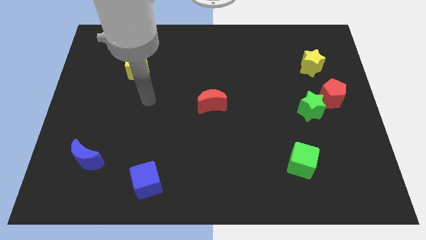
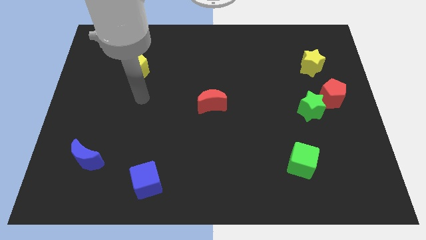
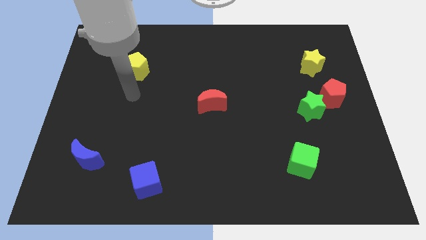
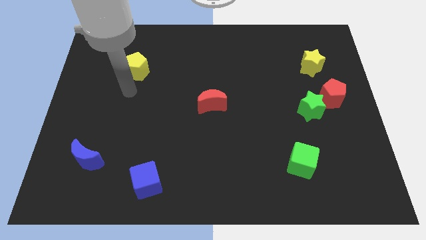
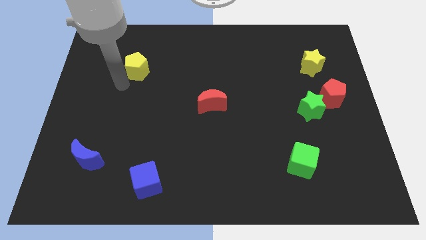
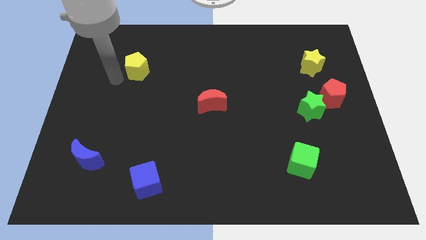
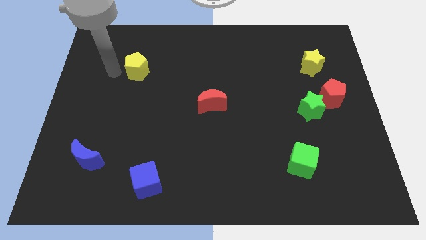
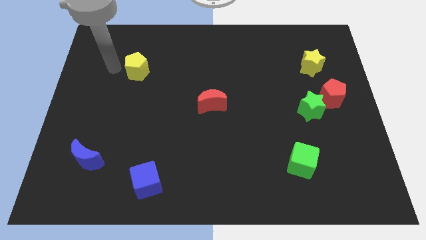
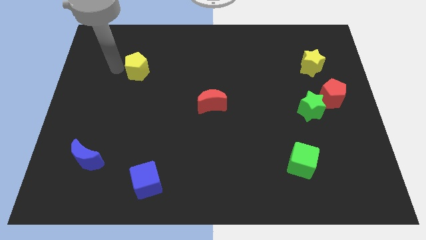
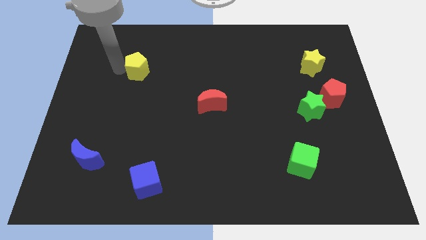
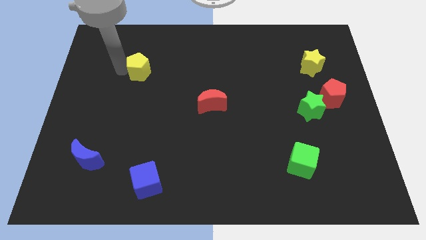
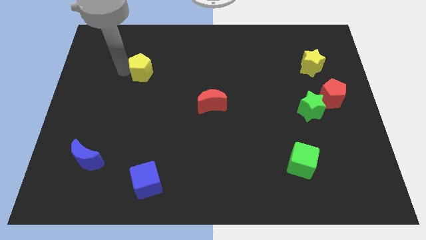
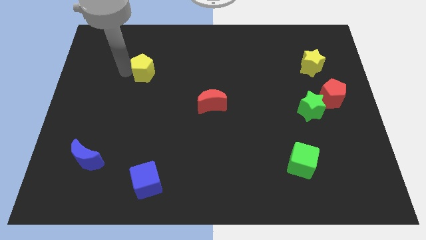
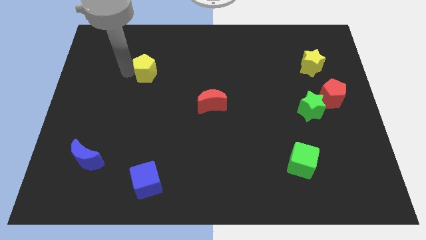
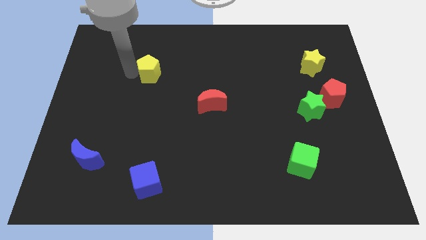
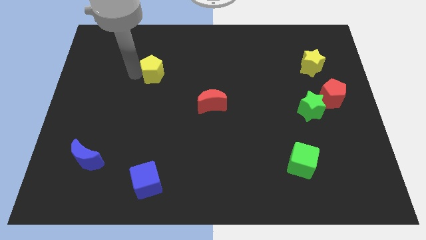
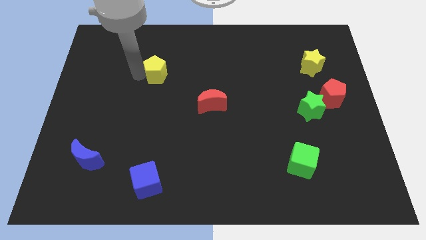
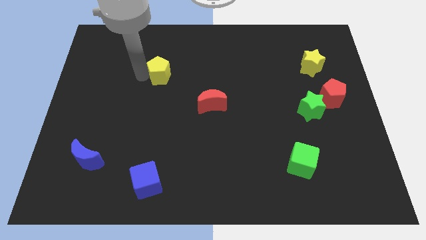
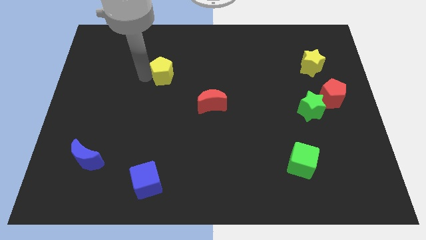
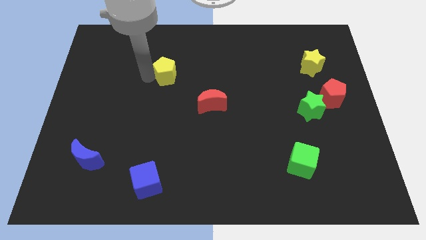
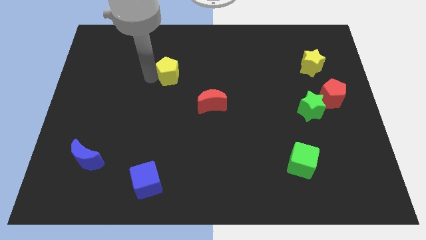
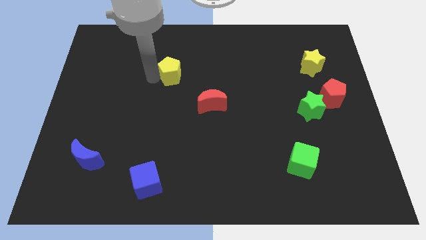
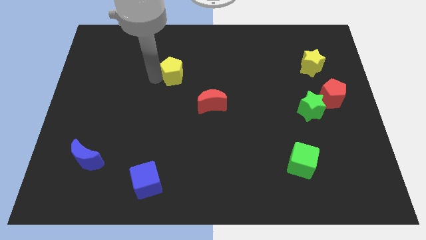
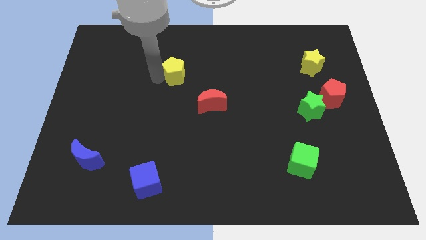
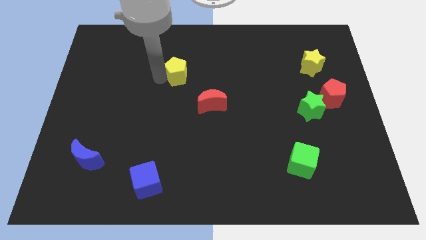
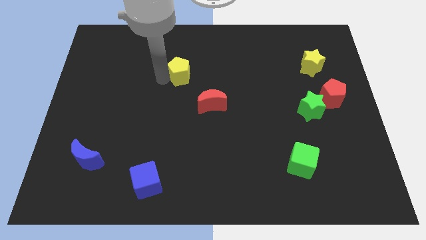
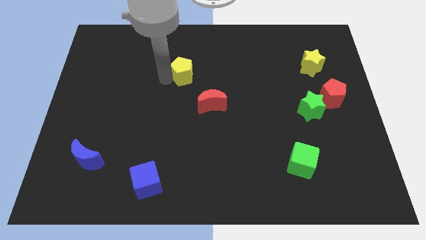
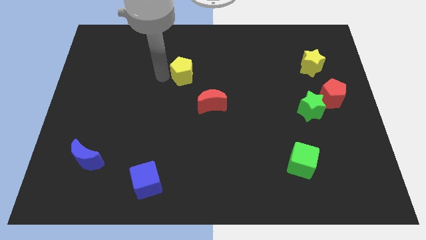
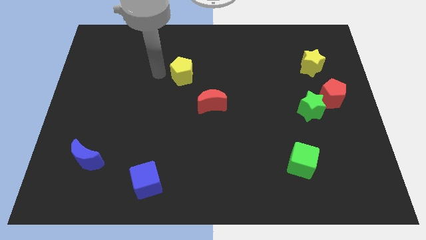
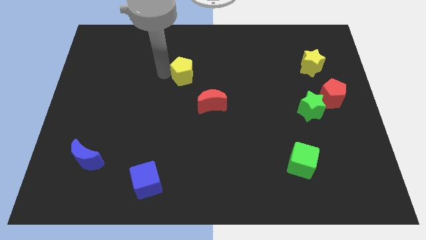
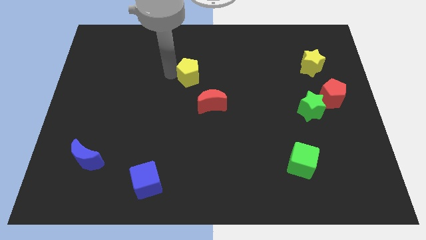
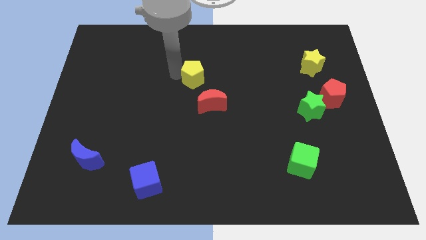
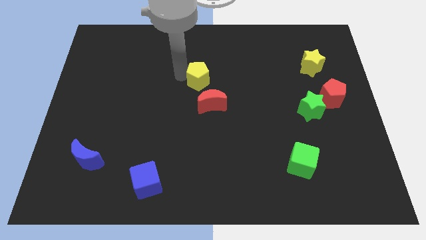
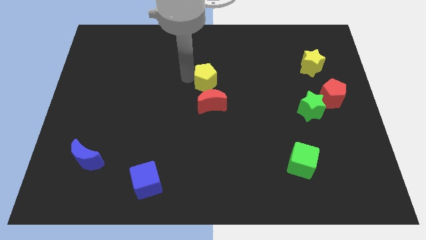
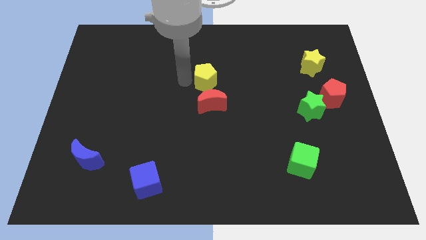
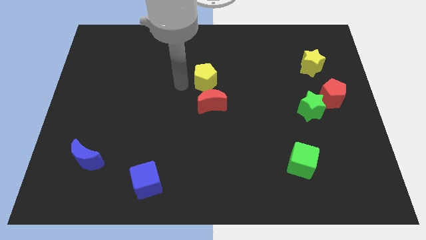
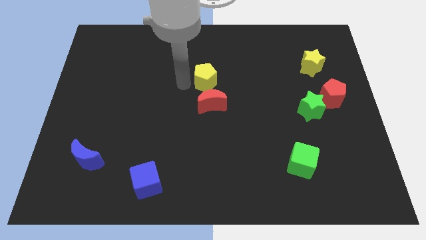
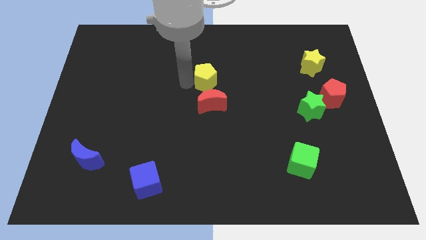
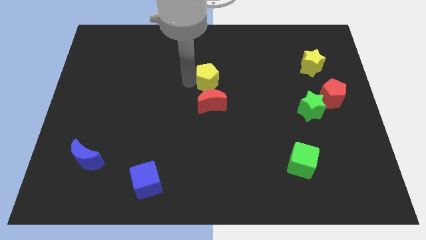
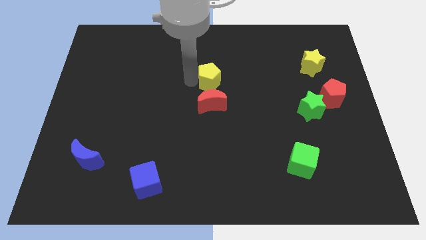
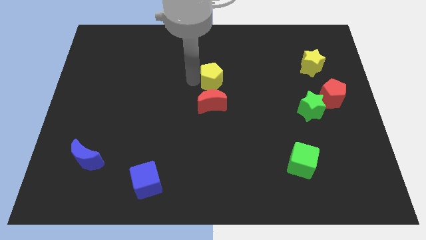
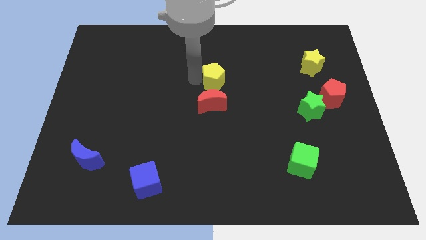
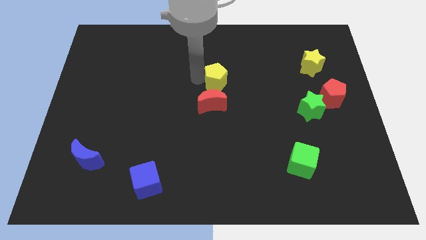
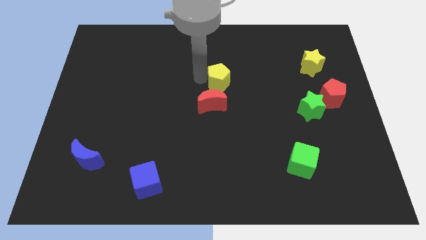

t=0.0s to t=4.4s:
slide the yellow pentagon right

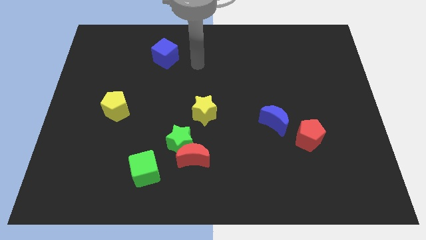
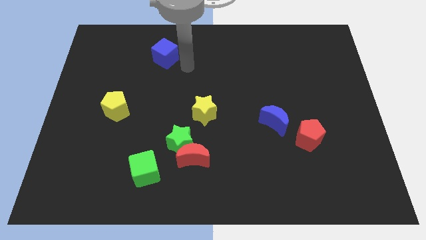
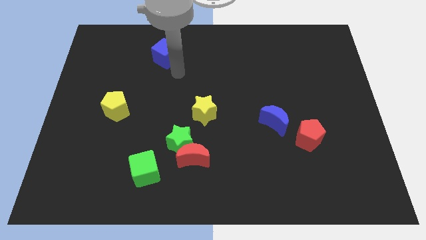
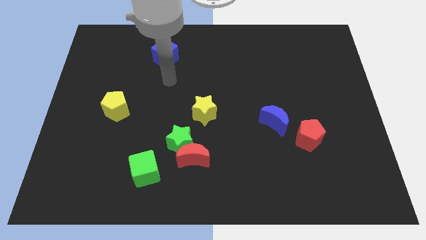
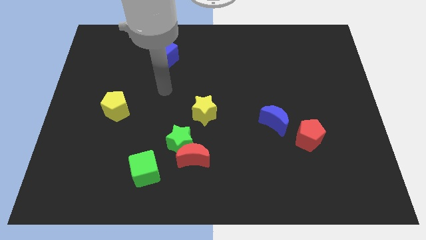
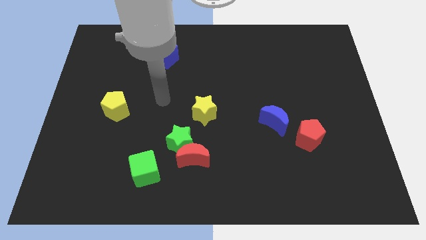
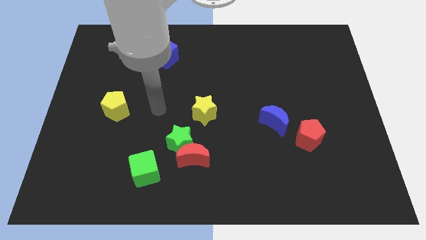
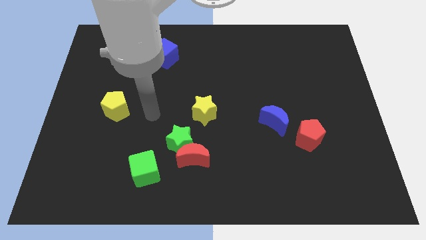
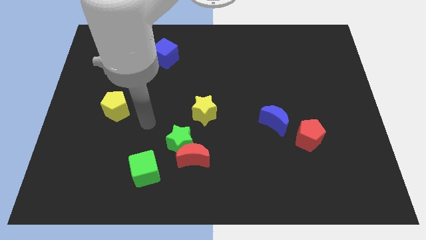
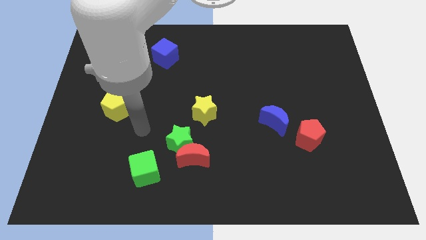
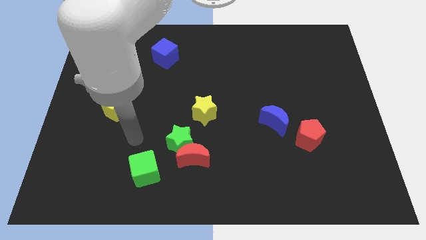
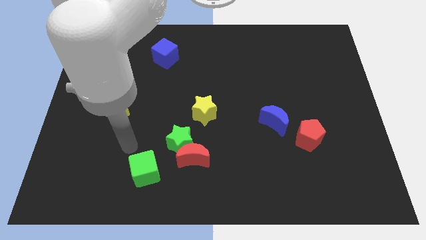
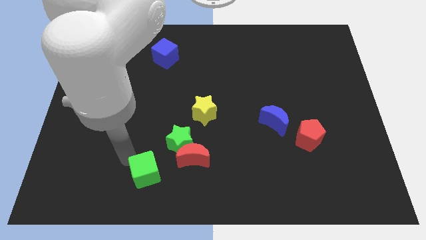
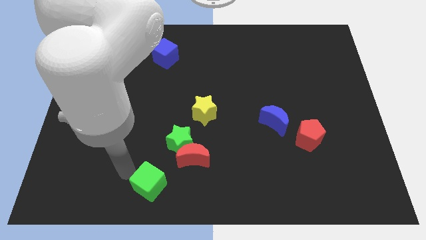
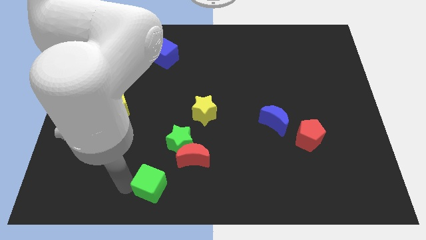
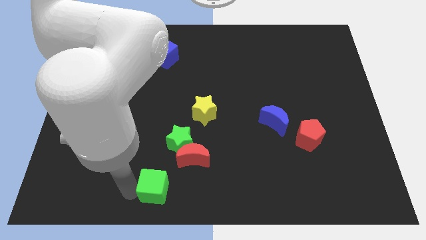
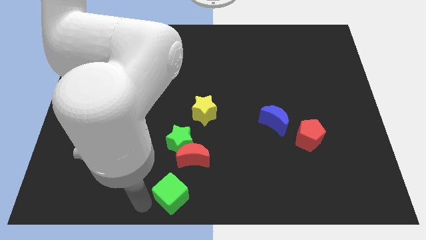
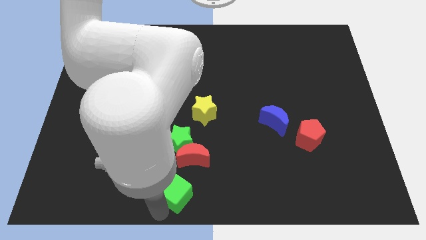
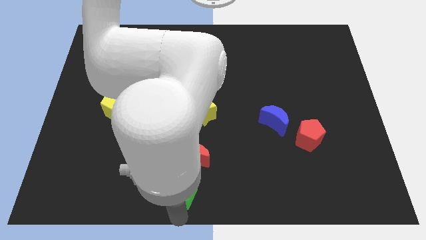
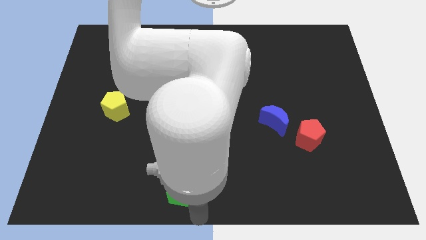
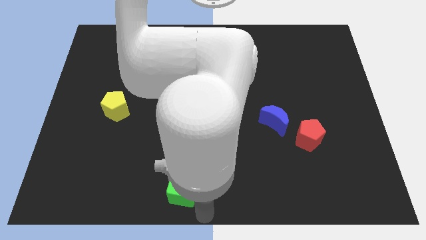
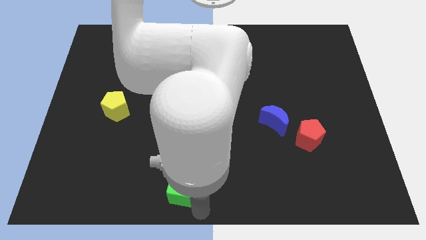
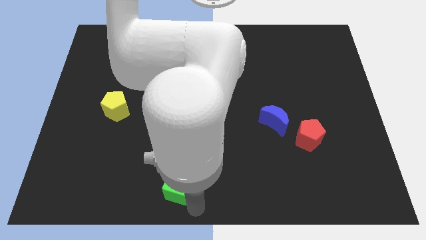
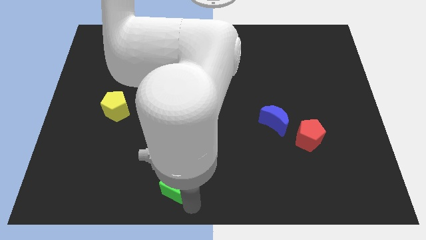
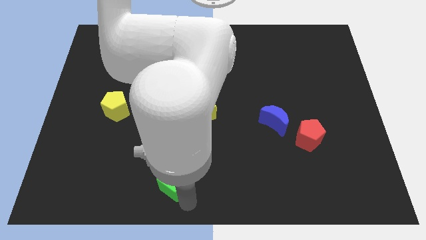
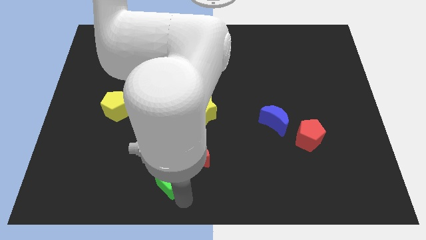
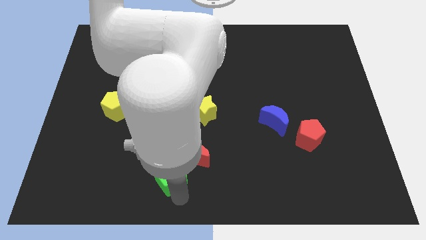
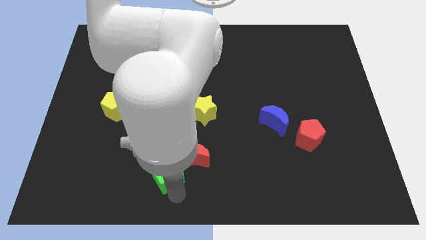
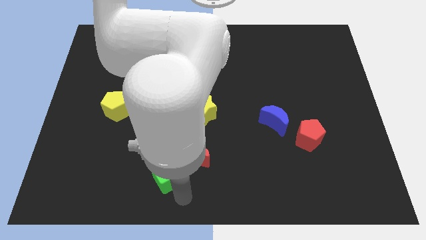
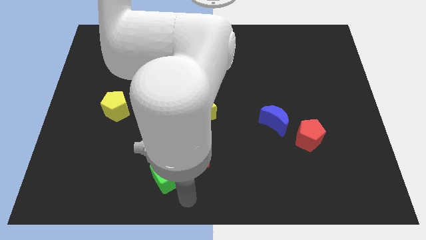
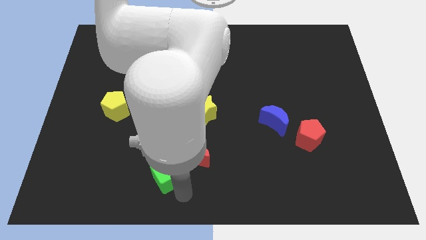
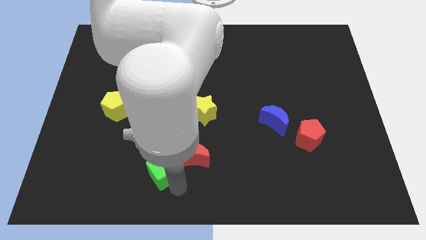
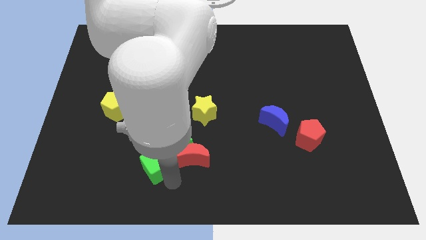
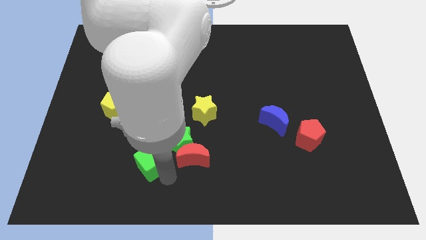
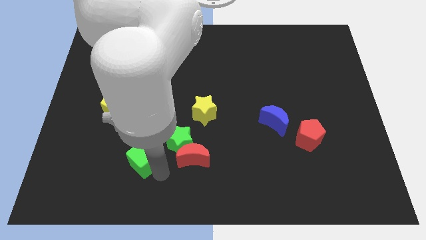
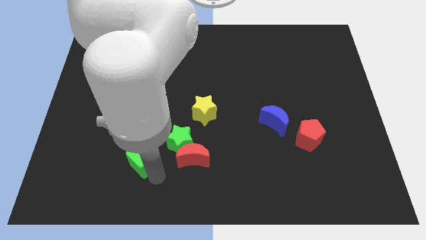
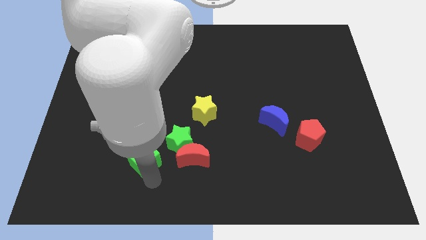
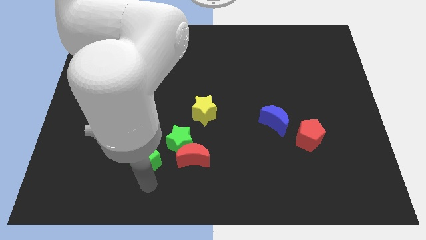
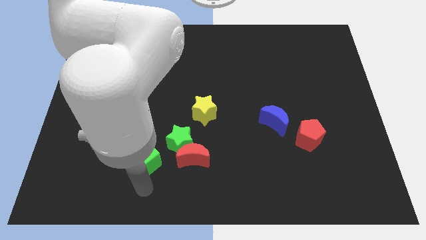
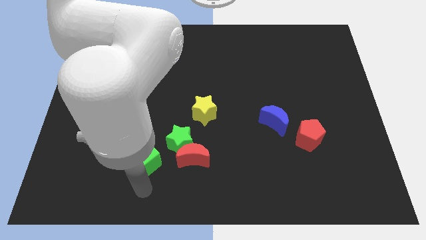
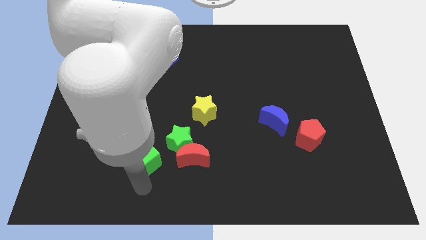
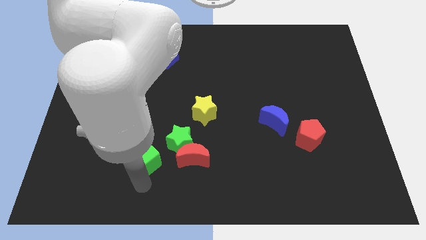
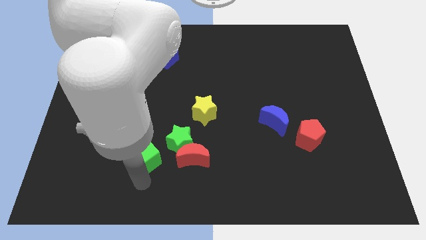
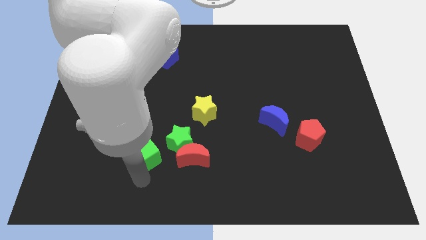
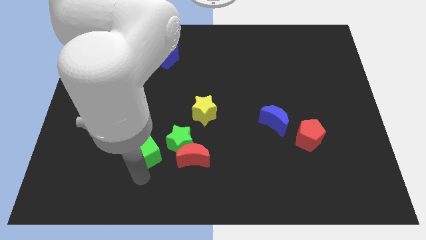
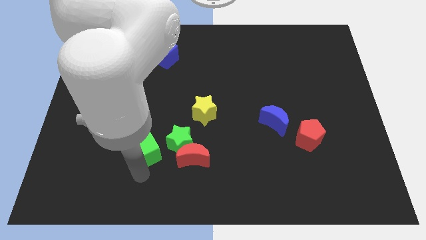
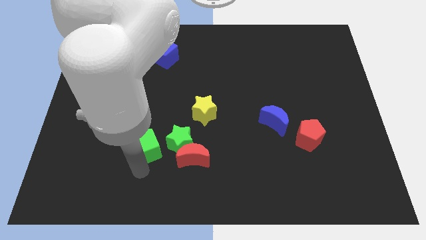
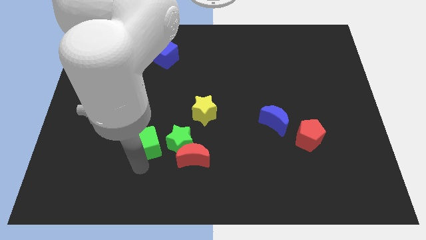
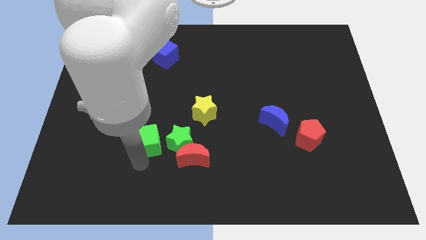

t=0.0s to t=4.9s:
move the green cube upwards somewhat
